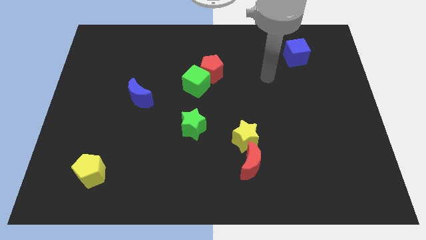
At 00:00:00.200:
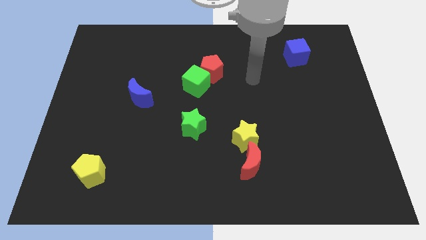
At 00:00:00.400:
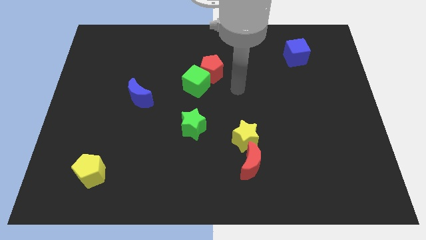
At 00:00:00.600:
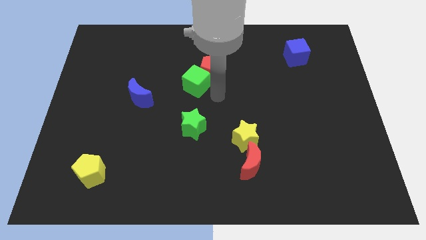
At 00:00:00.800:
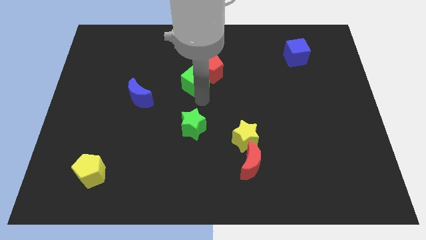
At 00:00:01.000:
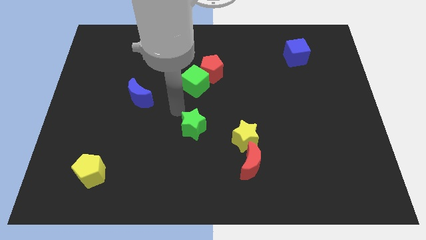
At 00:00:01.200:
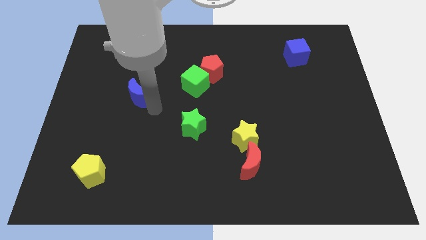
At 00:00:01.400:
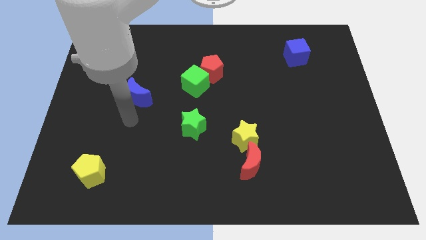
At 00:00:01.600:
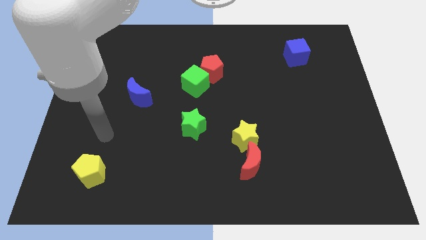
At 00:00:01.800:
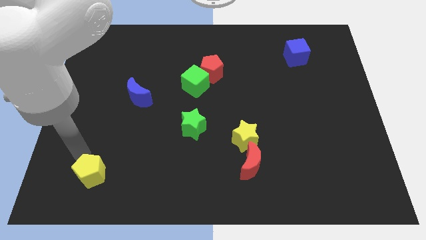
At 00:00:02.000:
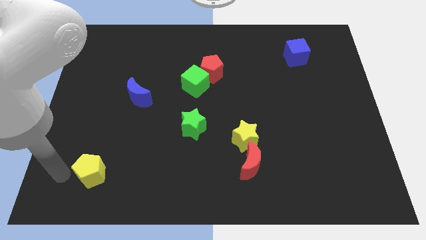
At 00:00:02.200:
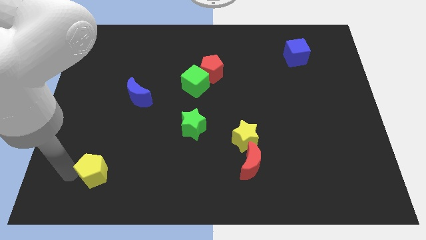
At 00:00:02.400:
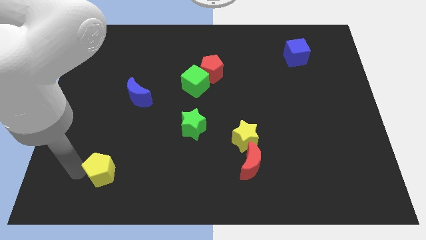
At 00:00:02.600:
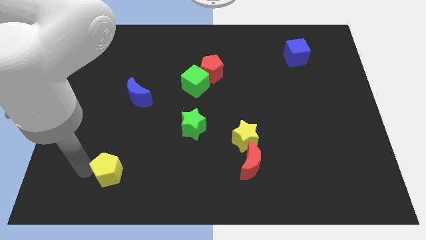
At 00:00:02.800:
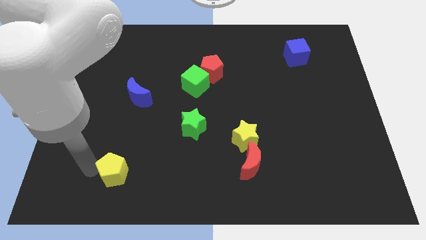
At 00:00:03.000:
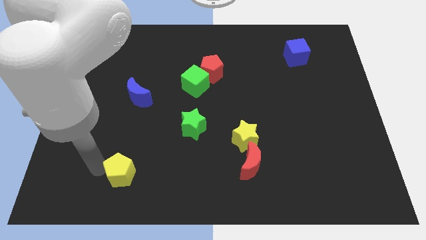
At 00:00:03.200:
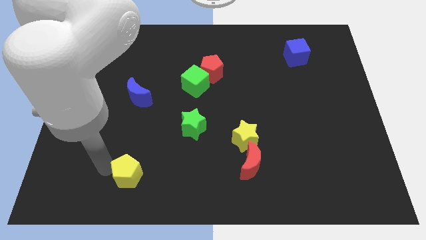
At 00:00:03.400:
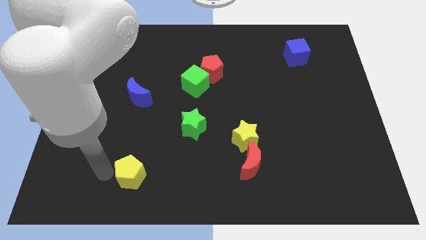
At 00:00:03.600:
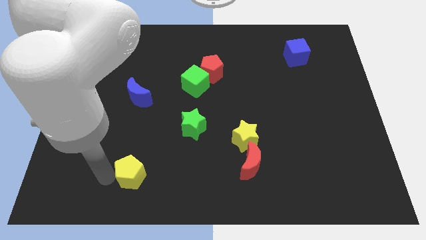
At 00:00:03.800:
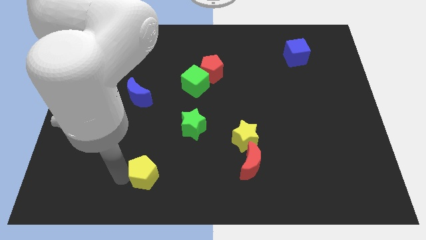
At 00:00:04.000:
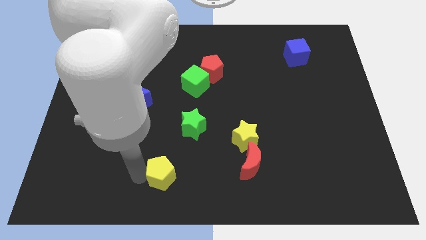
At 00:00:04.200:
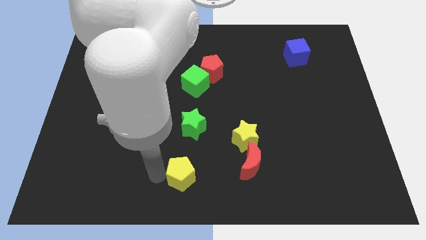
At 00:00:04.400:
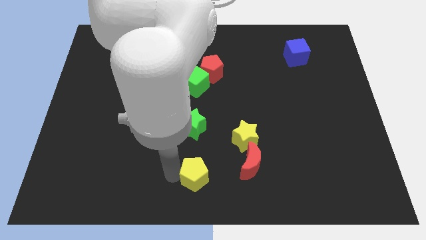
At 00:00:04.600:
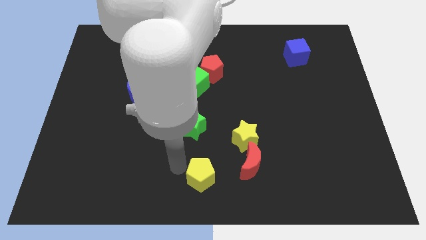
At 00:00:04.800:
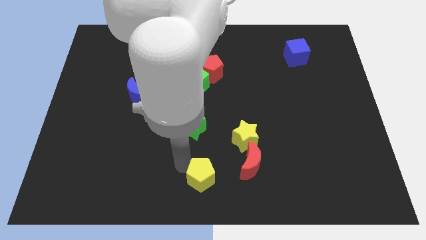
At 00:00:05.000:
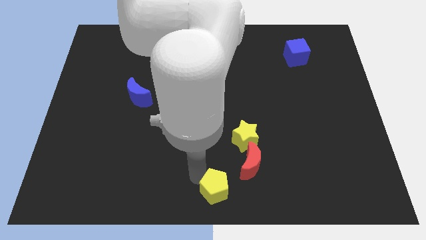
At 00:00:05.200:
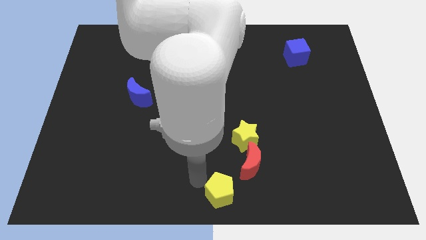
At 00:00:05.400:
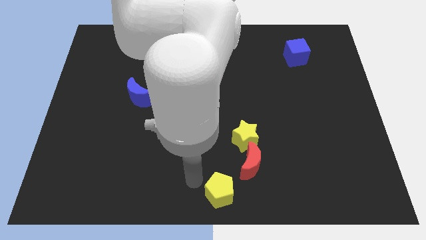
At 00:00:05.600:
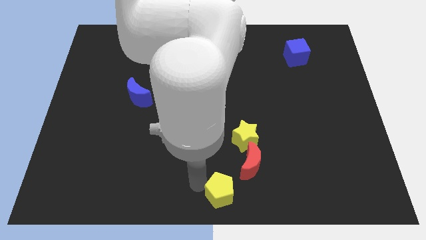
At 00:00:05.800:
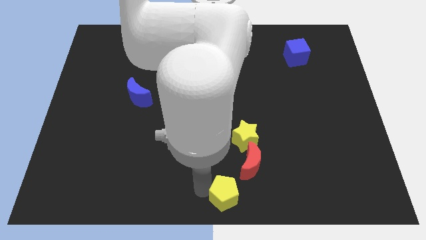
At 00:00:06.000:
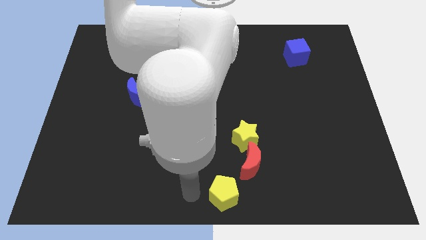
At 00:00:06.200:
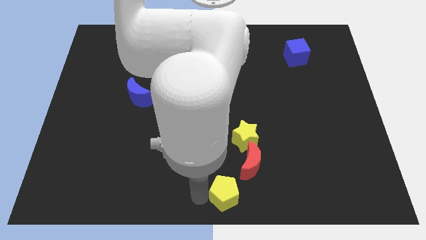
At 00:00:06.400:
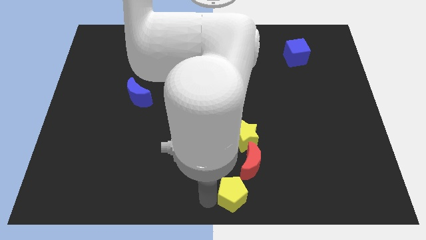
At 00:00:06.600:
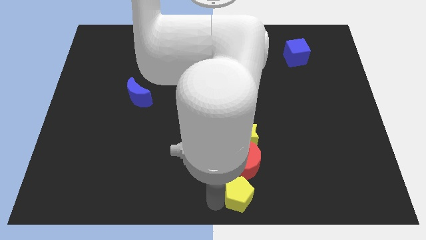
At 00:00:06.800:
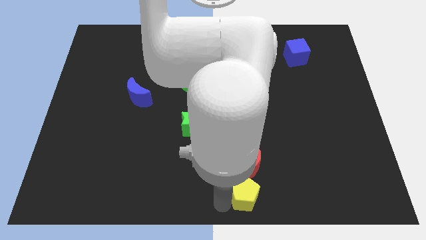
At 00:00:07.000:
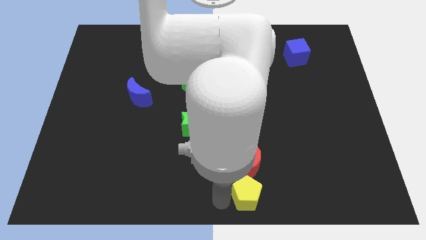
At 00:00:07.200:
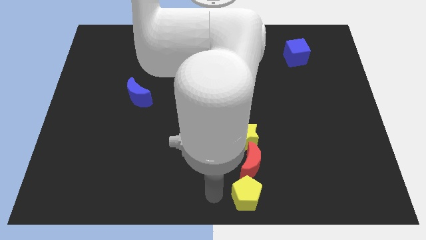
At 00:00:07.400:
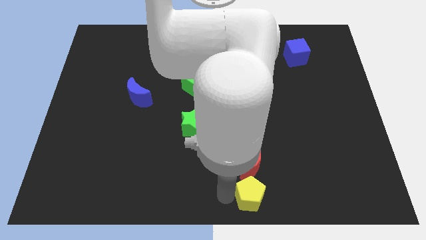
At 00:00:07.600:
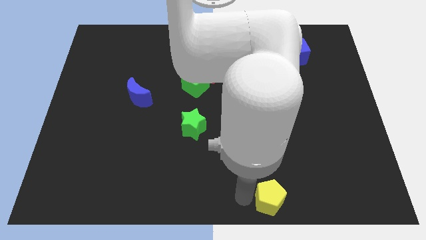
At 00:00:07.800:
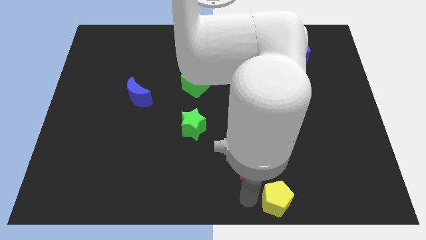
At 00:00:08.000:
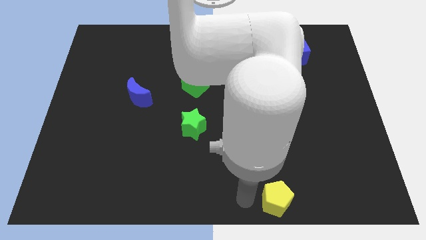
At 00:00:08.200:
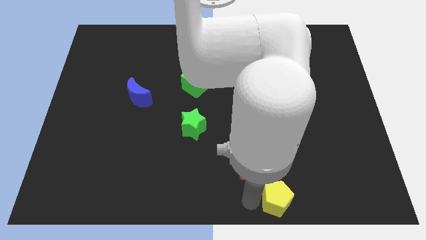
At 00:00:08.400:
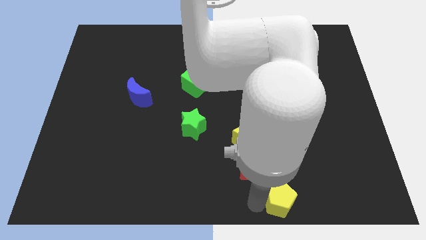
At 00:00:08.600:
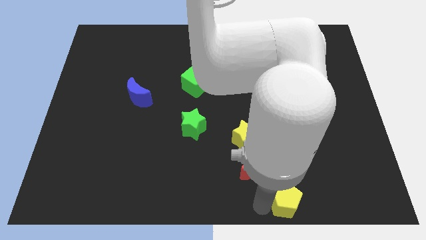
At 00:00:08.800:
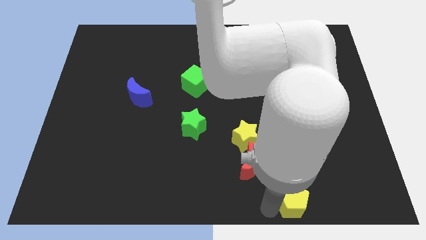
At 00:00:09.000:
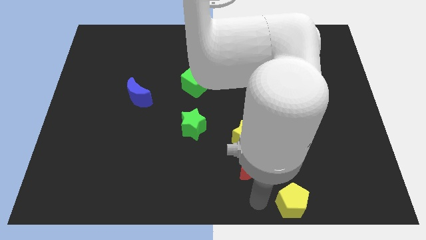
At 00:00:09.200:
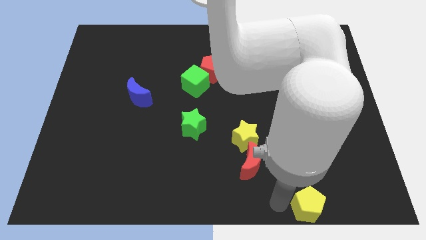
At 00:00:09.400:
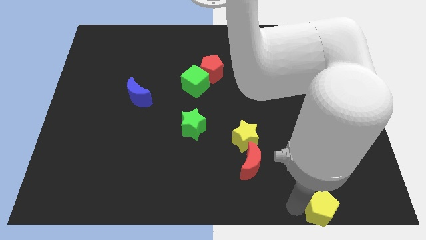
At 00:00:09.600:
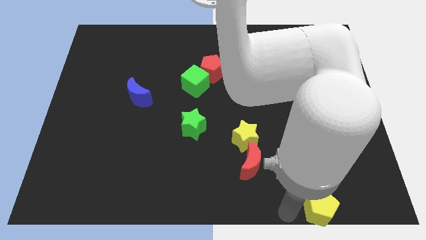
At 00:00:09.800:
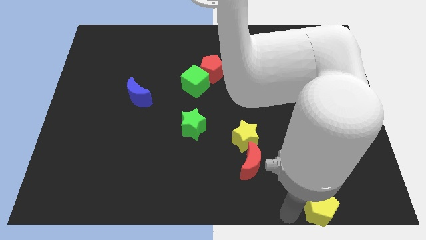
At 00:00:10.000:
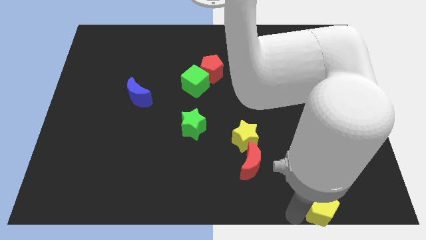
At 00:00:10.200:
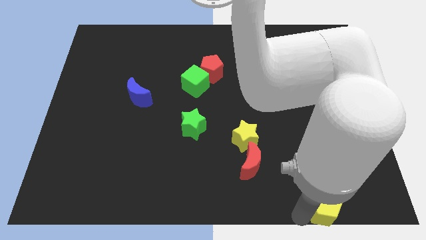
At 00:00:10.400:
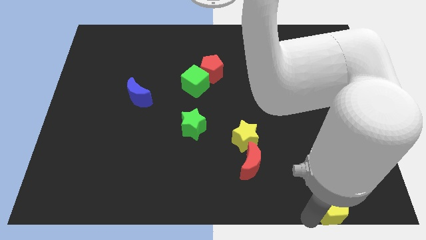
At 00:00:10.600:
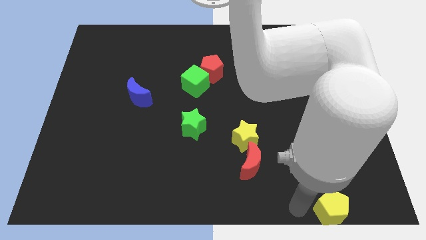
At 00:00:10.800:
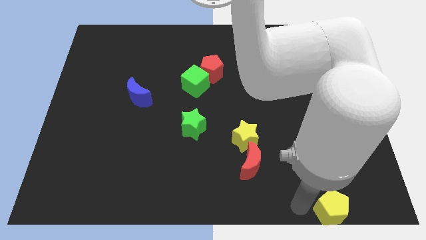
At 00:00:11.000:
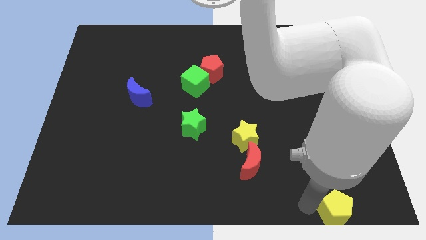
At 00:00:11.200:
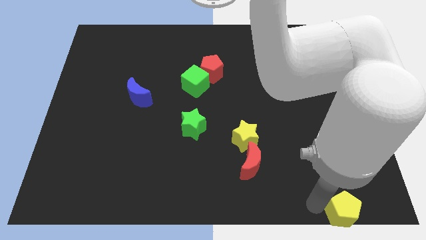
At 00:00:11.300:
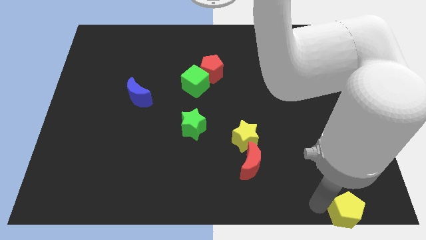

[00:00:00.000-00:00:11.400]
put the yellow pentagon to the bottom right of the board

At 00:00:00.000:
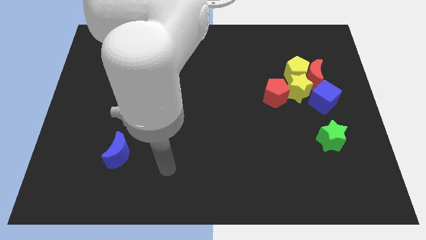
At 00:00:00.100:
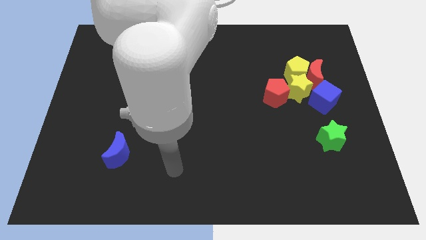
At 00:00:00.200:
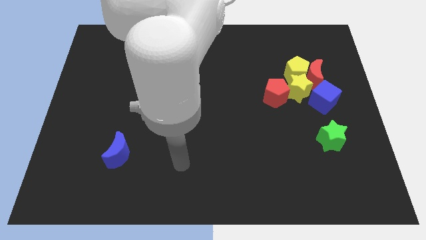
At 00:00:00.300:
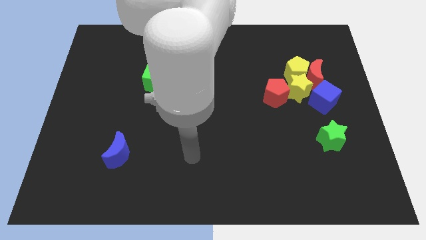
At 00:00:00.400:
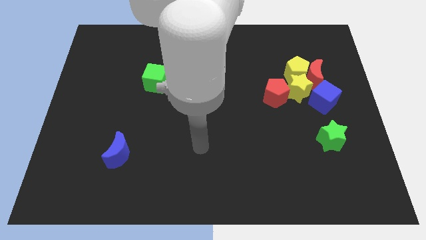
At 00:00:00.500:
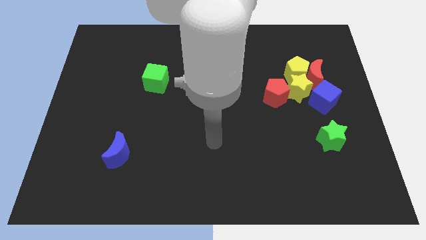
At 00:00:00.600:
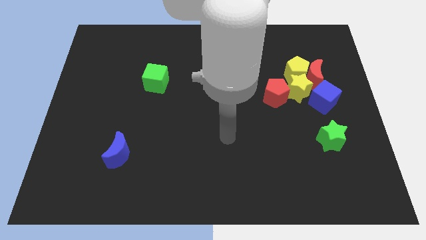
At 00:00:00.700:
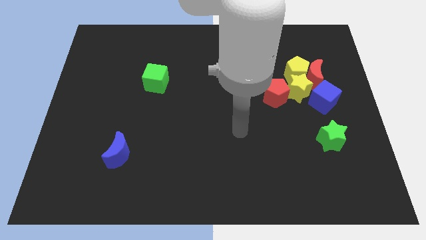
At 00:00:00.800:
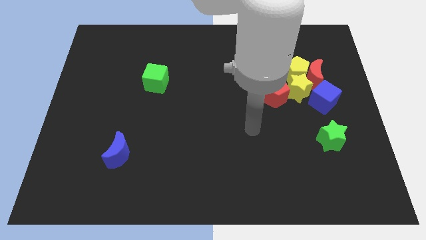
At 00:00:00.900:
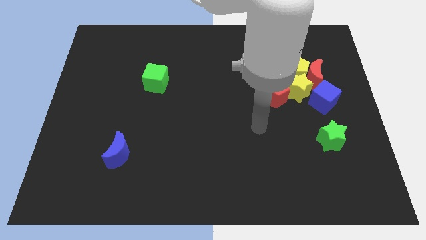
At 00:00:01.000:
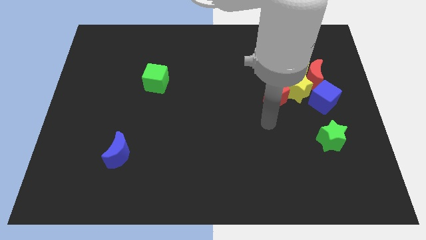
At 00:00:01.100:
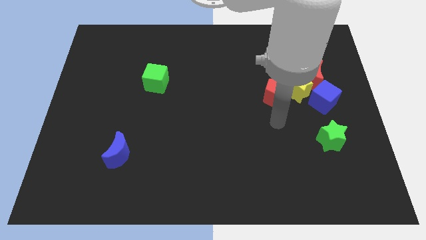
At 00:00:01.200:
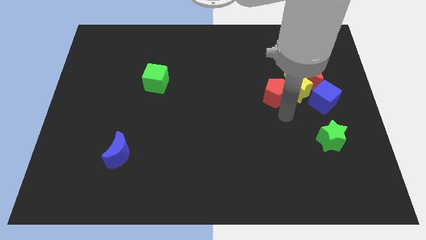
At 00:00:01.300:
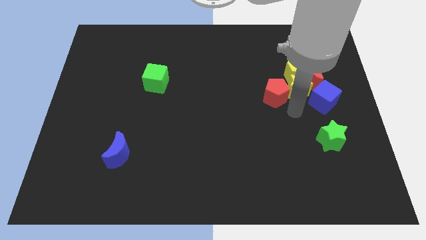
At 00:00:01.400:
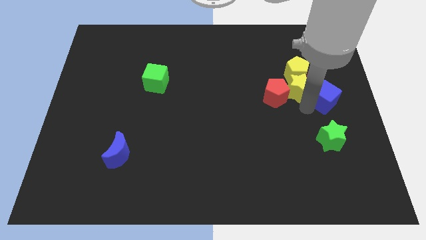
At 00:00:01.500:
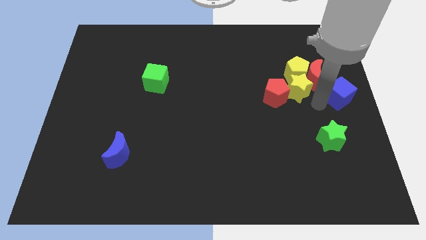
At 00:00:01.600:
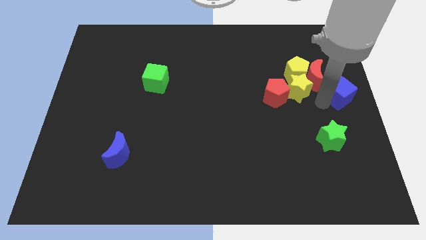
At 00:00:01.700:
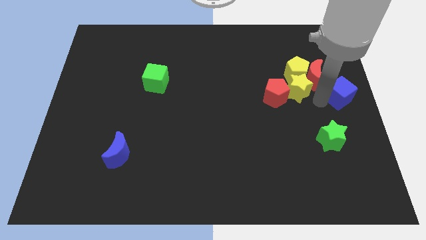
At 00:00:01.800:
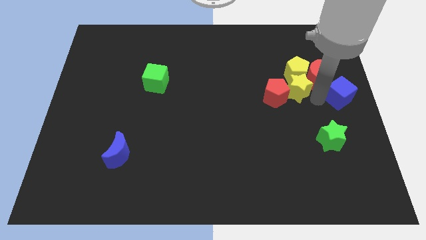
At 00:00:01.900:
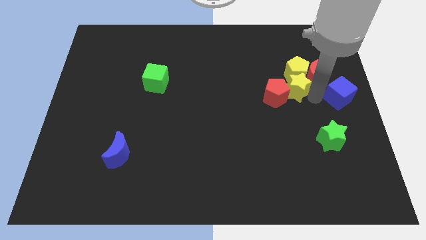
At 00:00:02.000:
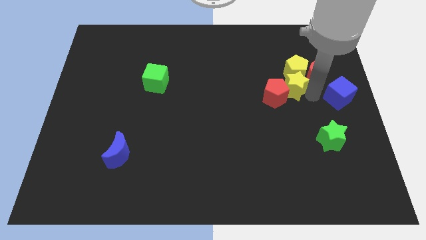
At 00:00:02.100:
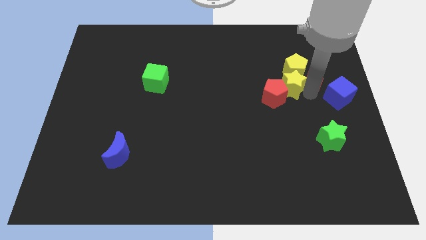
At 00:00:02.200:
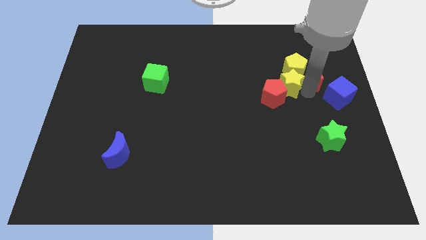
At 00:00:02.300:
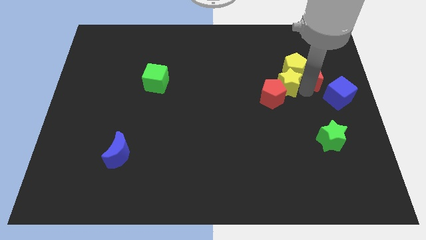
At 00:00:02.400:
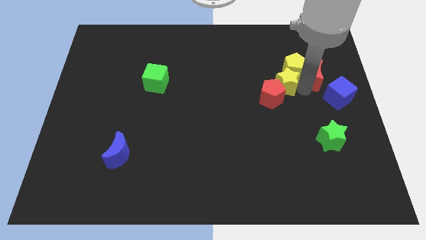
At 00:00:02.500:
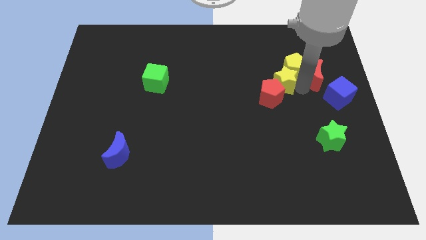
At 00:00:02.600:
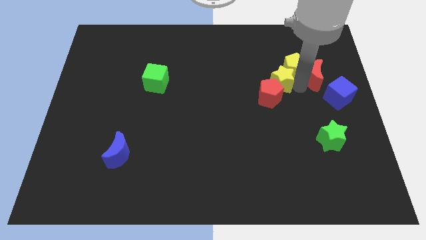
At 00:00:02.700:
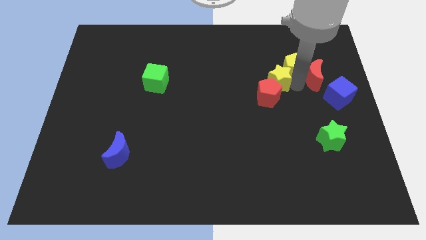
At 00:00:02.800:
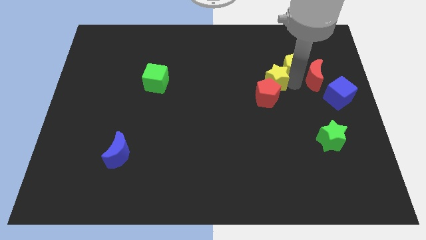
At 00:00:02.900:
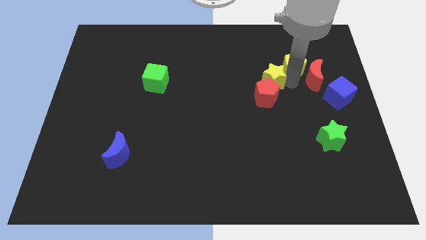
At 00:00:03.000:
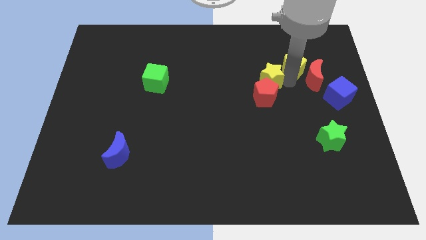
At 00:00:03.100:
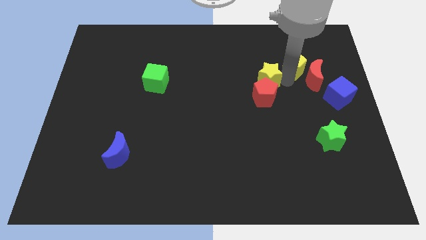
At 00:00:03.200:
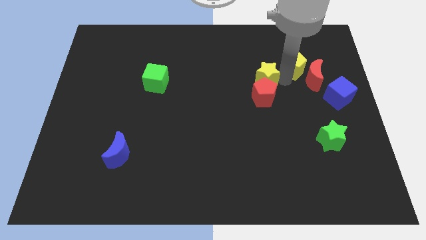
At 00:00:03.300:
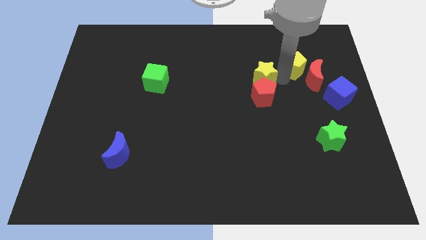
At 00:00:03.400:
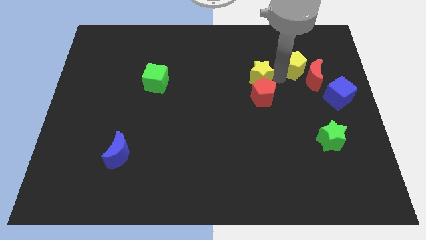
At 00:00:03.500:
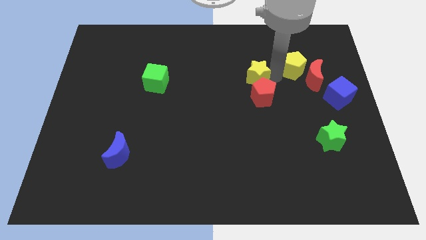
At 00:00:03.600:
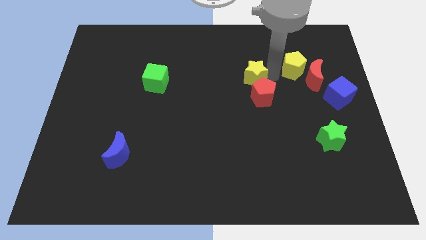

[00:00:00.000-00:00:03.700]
put the yellow star to the middle
